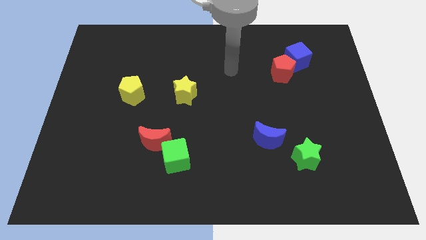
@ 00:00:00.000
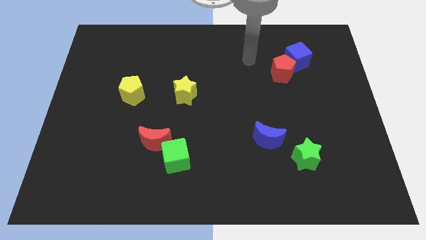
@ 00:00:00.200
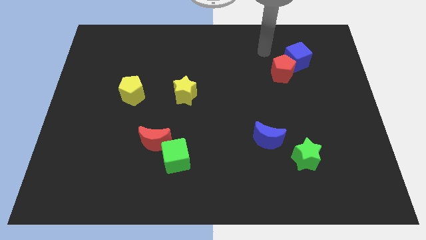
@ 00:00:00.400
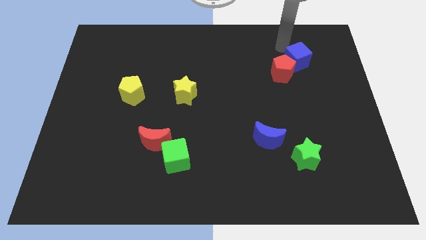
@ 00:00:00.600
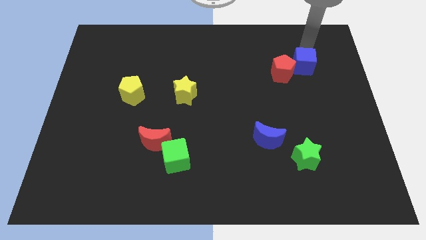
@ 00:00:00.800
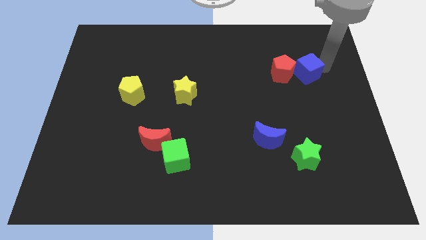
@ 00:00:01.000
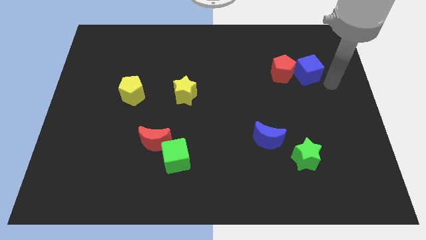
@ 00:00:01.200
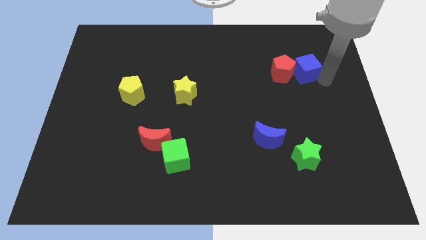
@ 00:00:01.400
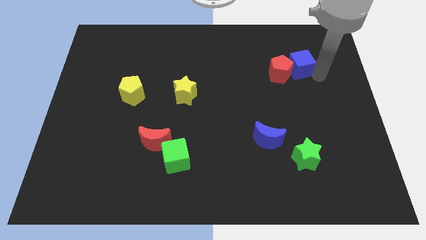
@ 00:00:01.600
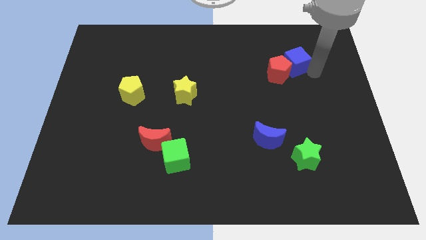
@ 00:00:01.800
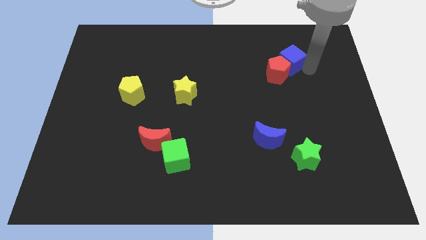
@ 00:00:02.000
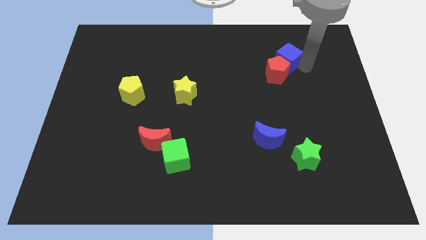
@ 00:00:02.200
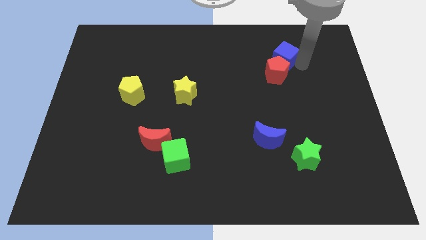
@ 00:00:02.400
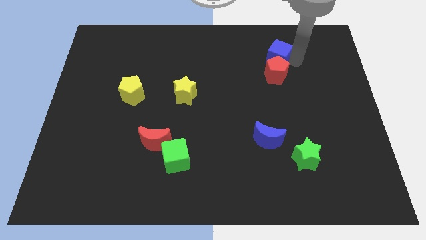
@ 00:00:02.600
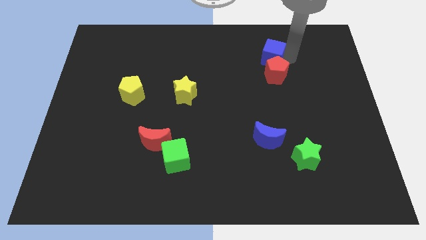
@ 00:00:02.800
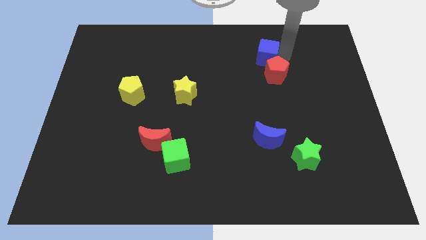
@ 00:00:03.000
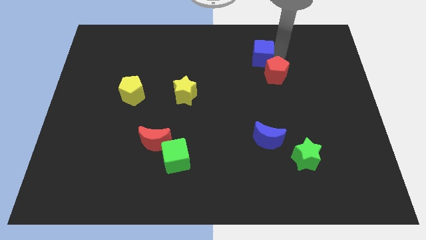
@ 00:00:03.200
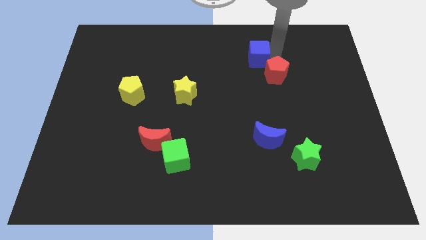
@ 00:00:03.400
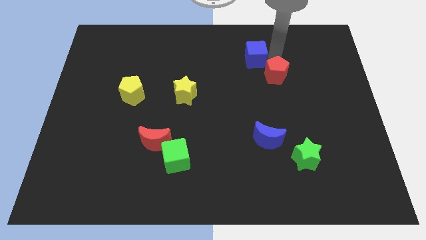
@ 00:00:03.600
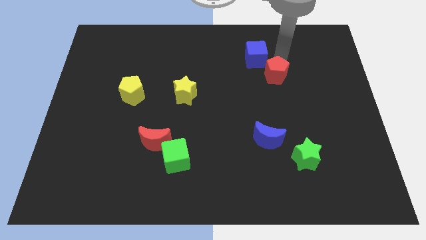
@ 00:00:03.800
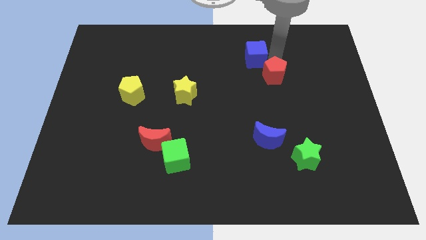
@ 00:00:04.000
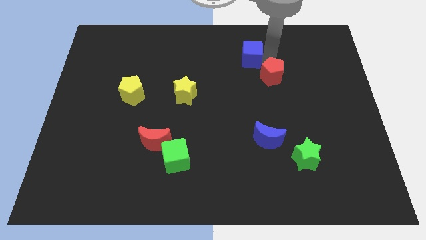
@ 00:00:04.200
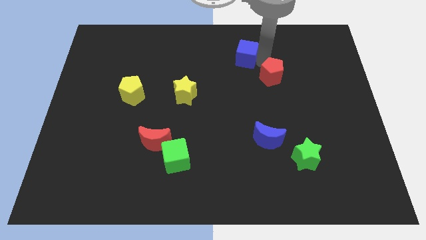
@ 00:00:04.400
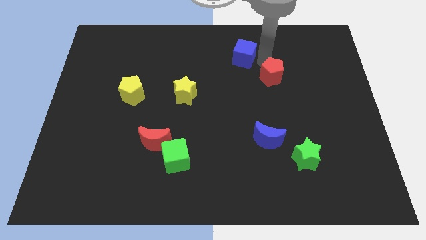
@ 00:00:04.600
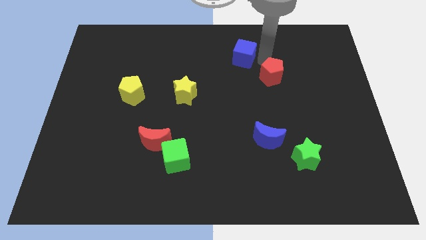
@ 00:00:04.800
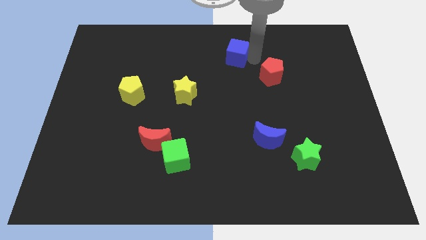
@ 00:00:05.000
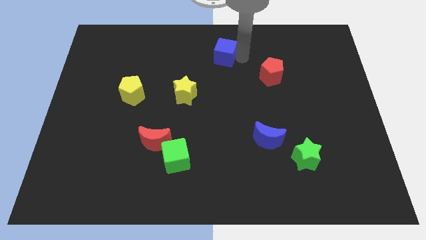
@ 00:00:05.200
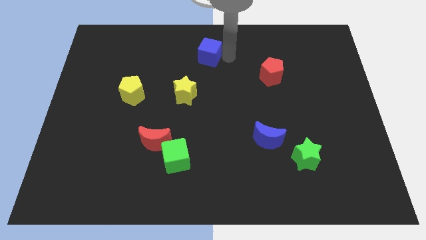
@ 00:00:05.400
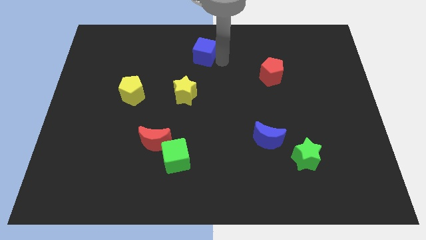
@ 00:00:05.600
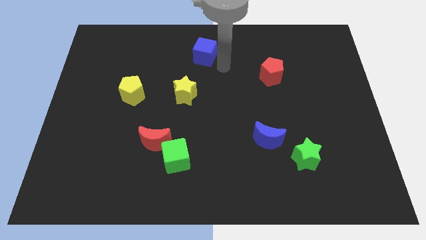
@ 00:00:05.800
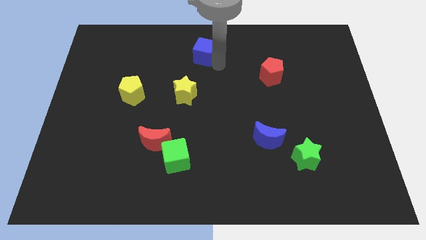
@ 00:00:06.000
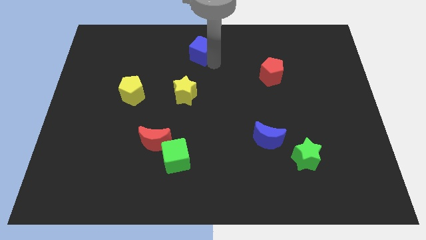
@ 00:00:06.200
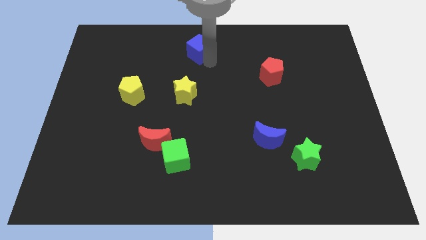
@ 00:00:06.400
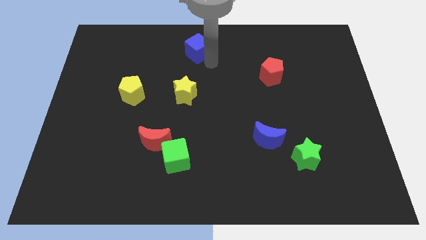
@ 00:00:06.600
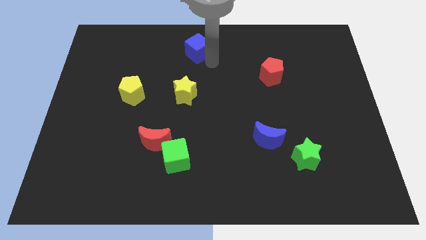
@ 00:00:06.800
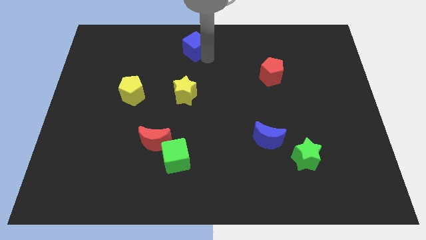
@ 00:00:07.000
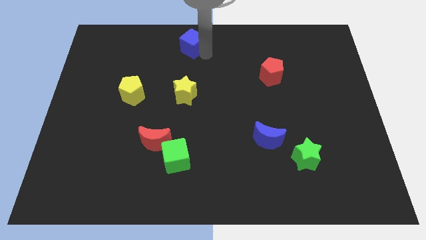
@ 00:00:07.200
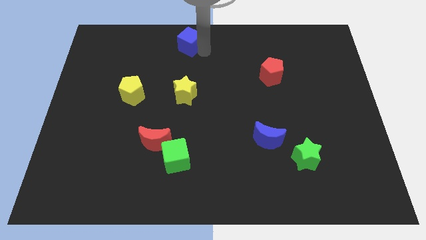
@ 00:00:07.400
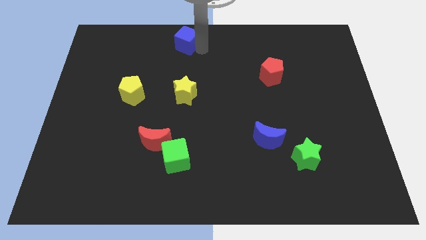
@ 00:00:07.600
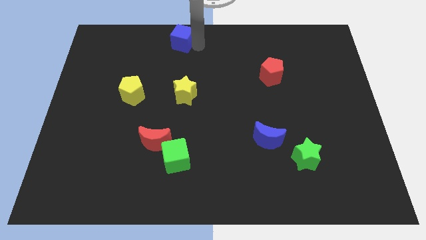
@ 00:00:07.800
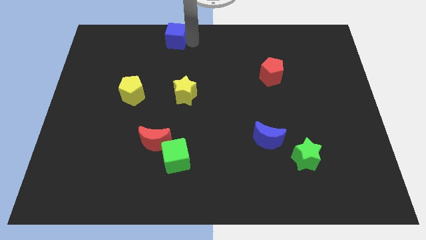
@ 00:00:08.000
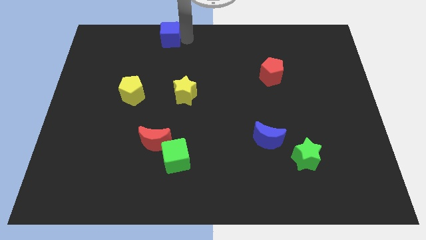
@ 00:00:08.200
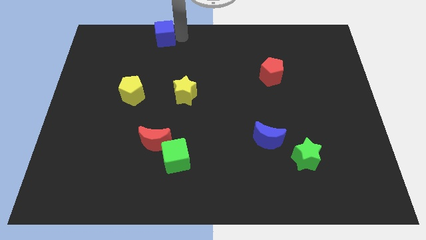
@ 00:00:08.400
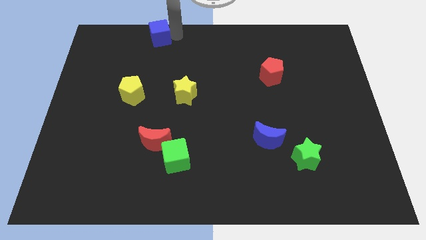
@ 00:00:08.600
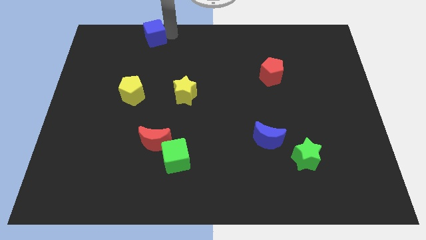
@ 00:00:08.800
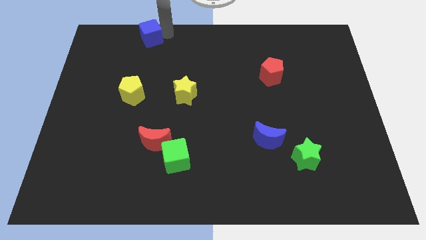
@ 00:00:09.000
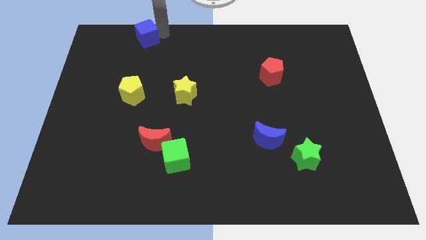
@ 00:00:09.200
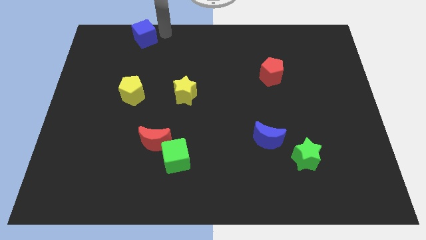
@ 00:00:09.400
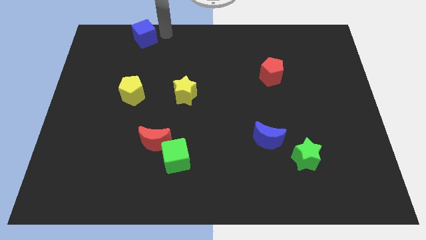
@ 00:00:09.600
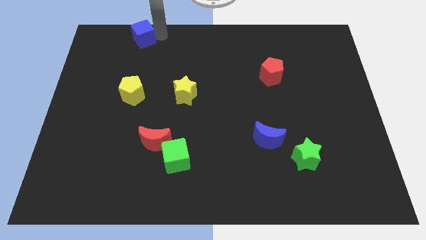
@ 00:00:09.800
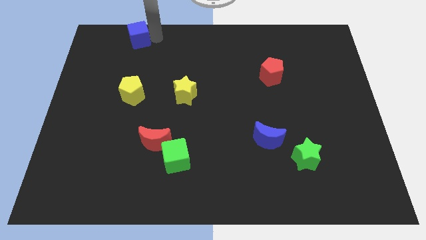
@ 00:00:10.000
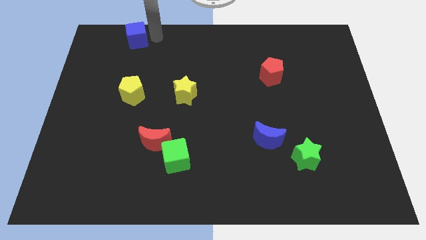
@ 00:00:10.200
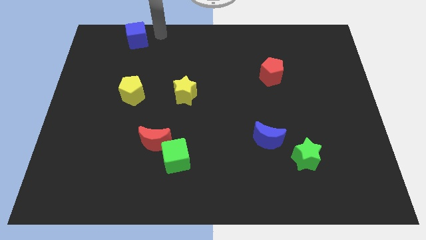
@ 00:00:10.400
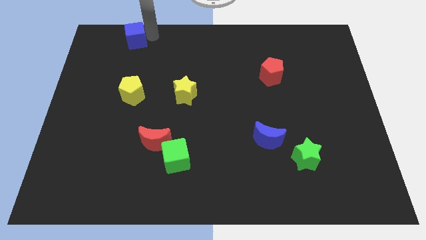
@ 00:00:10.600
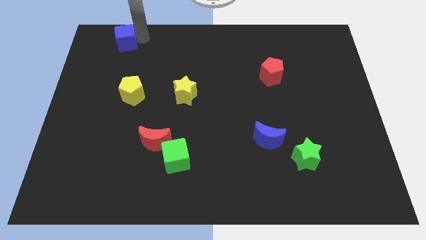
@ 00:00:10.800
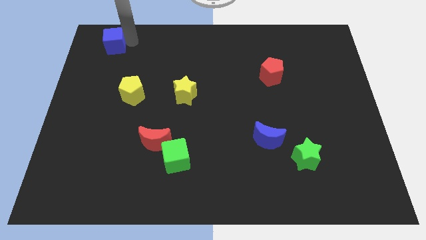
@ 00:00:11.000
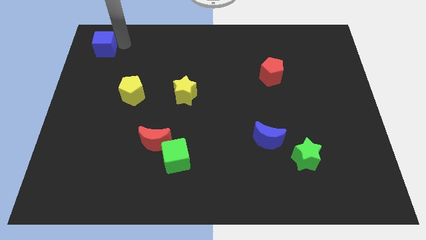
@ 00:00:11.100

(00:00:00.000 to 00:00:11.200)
slide the blue cube to the top left
